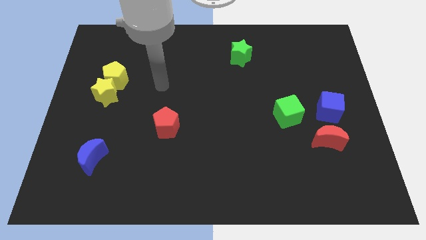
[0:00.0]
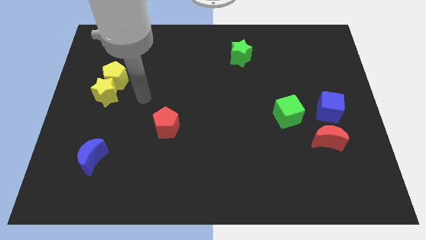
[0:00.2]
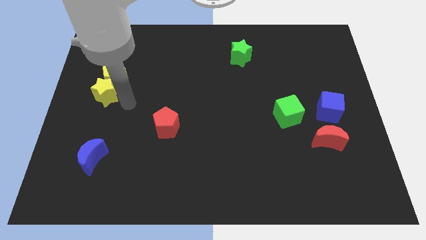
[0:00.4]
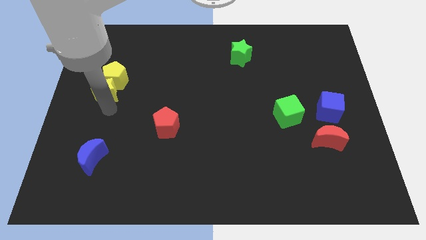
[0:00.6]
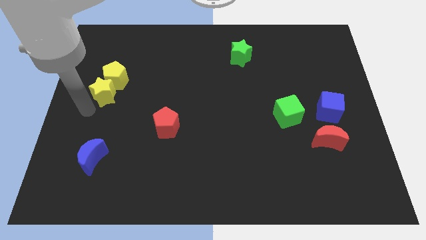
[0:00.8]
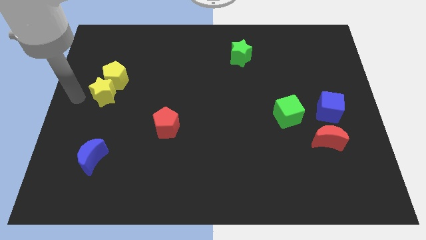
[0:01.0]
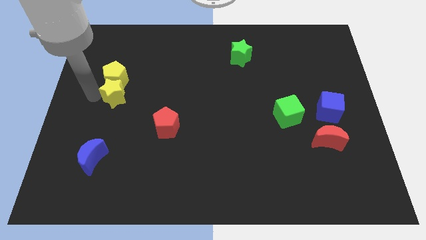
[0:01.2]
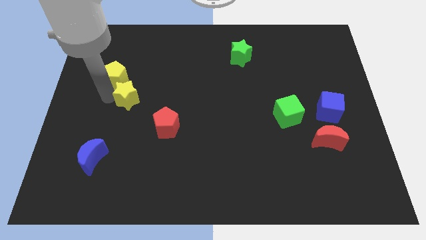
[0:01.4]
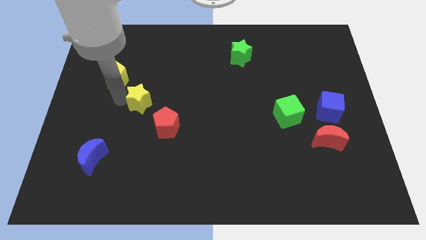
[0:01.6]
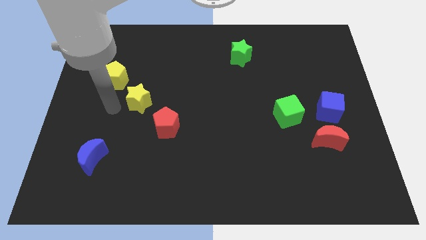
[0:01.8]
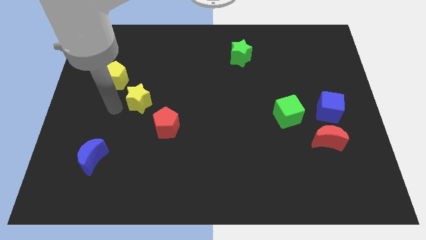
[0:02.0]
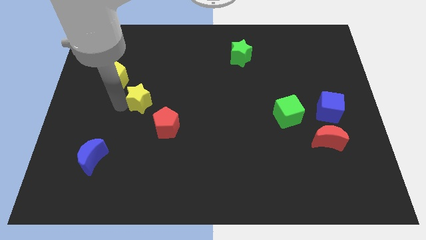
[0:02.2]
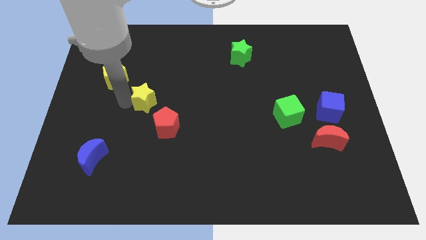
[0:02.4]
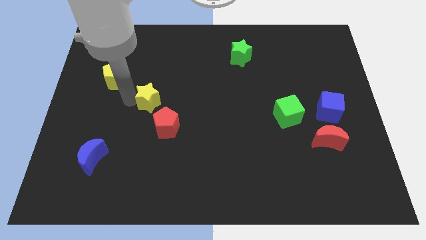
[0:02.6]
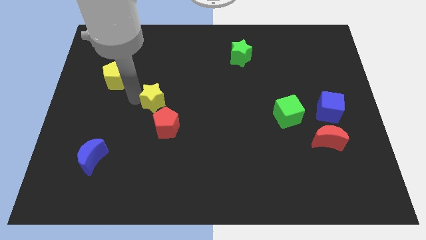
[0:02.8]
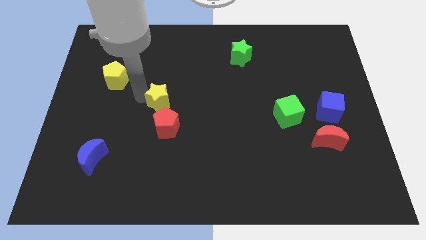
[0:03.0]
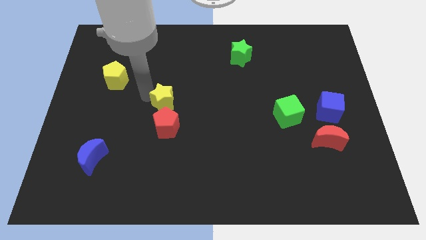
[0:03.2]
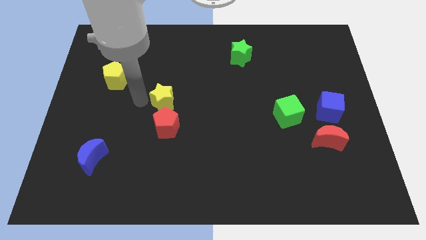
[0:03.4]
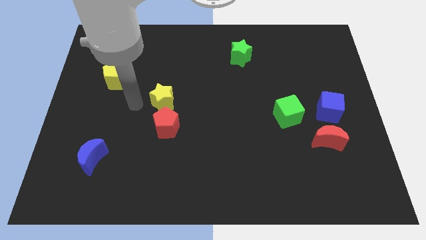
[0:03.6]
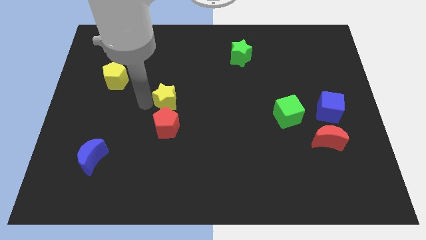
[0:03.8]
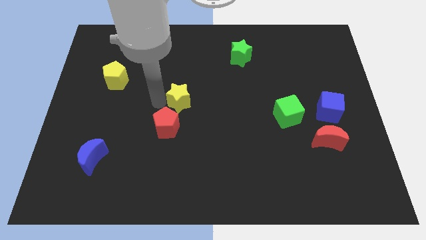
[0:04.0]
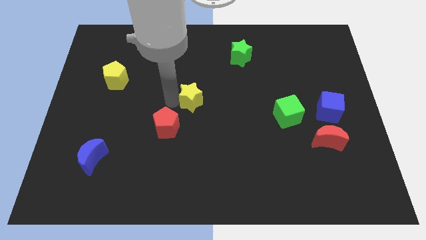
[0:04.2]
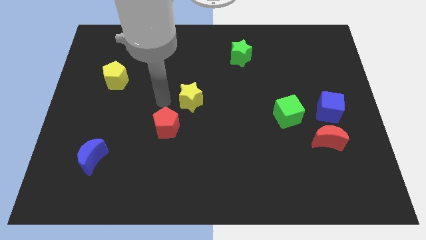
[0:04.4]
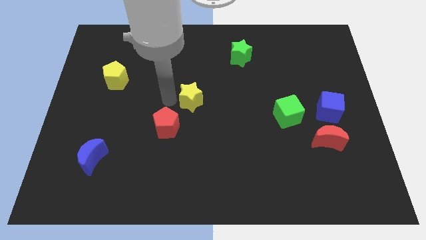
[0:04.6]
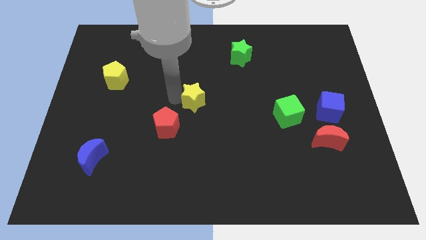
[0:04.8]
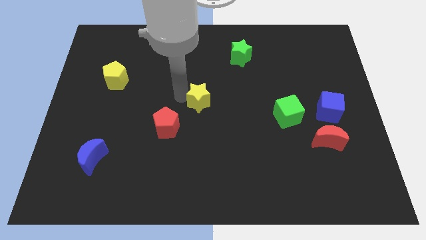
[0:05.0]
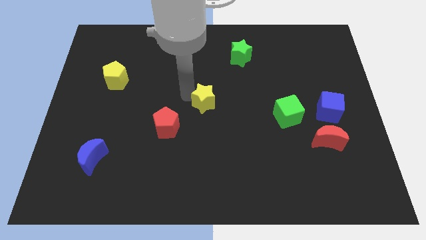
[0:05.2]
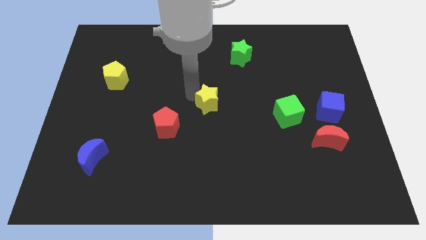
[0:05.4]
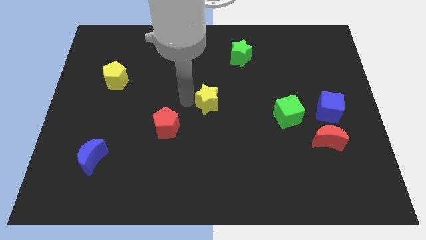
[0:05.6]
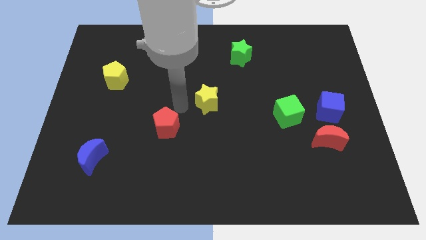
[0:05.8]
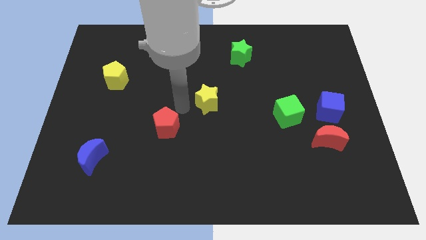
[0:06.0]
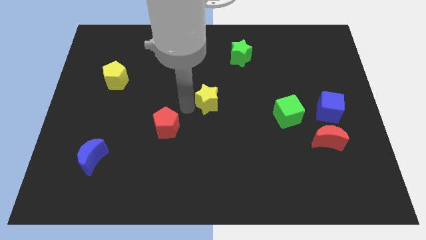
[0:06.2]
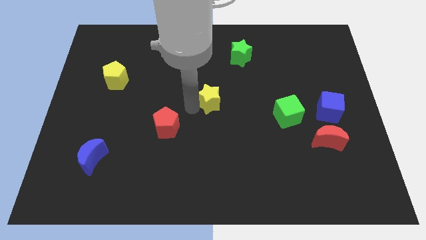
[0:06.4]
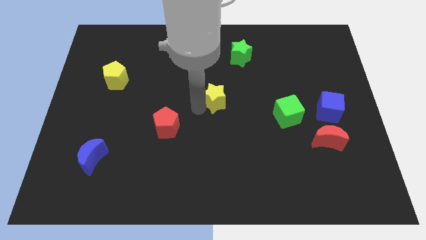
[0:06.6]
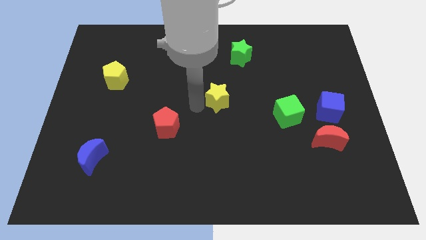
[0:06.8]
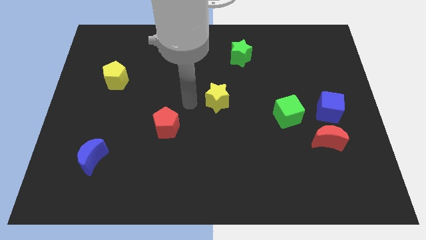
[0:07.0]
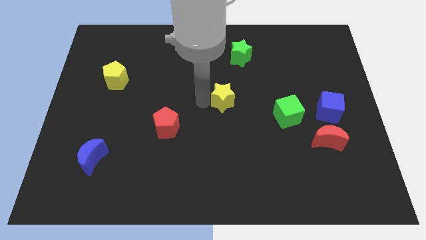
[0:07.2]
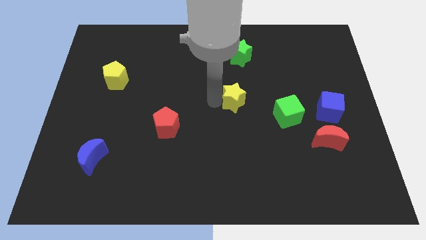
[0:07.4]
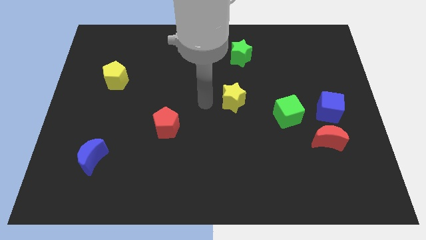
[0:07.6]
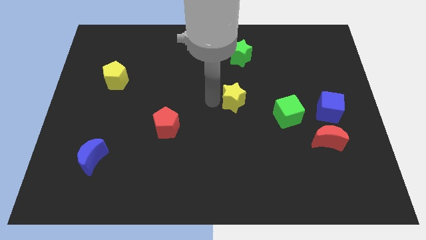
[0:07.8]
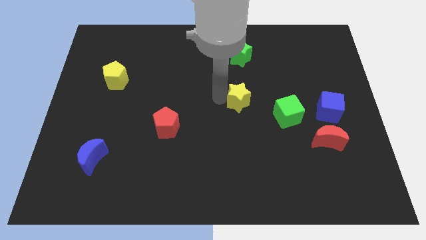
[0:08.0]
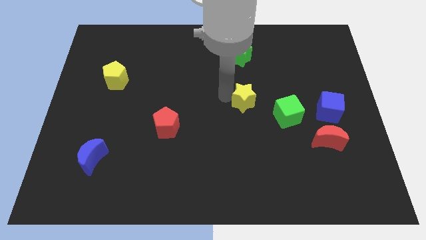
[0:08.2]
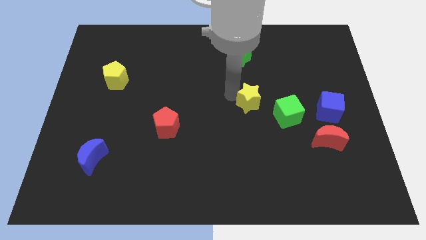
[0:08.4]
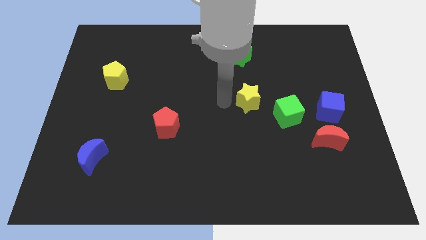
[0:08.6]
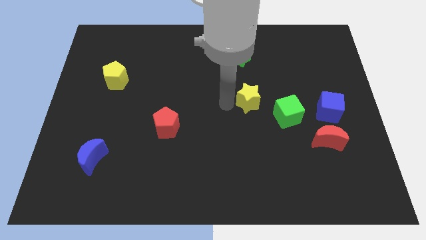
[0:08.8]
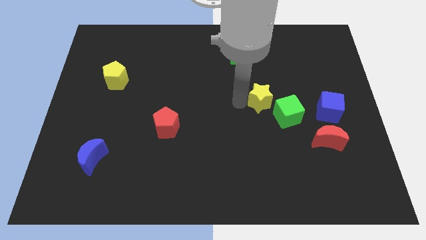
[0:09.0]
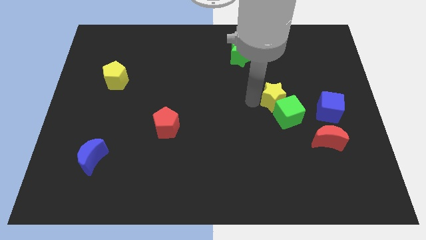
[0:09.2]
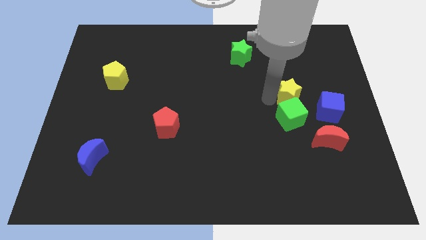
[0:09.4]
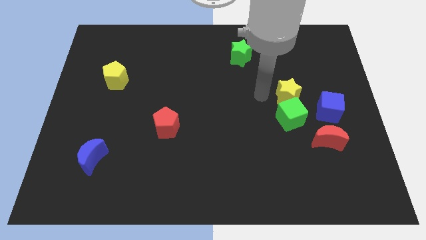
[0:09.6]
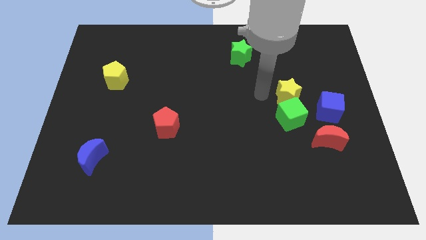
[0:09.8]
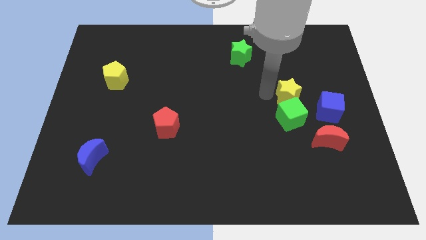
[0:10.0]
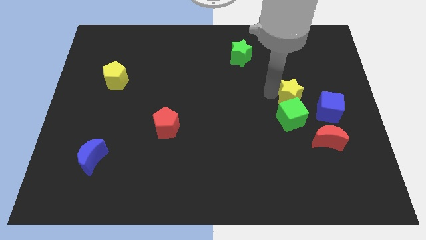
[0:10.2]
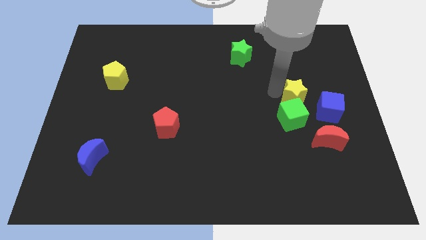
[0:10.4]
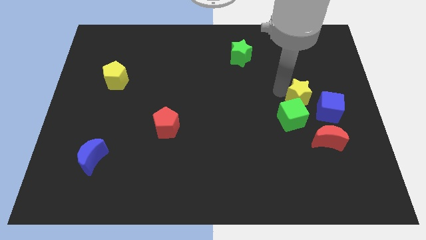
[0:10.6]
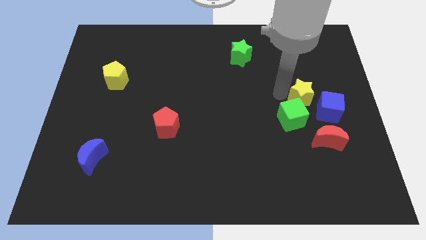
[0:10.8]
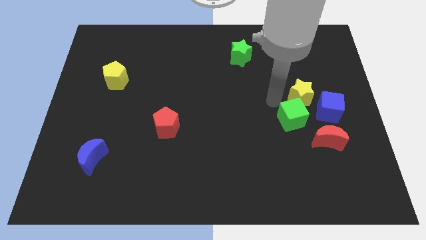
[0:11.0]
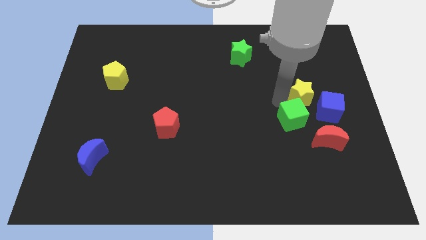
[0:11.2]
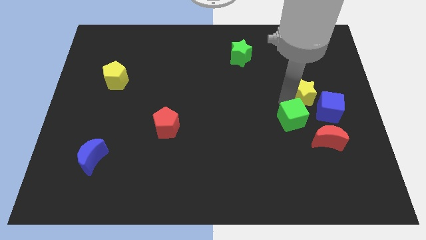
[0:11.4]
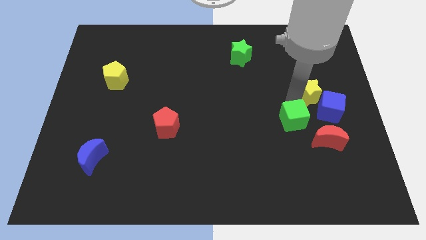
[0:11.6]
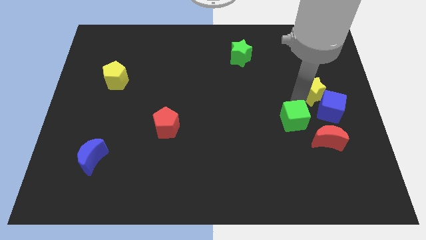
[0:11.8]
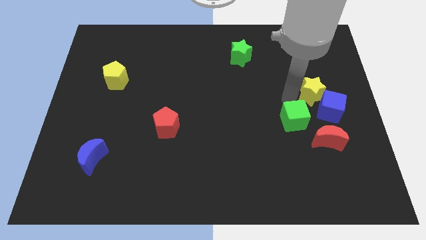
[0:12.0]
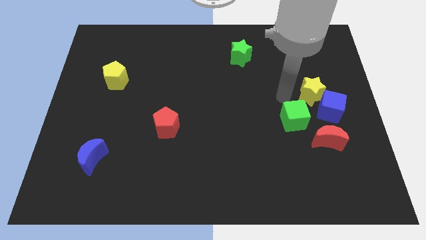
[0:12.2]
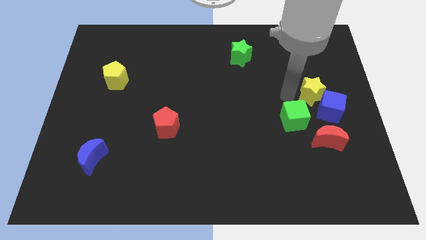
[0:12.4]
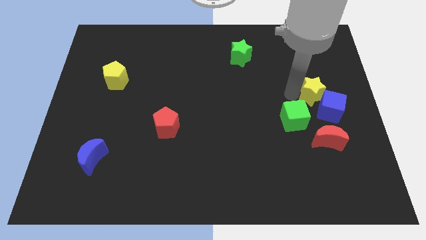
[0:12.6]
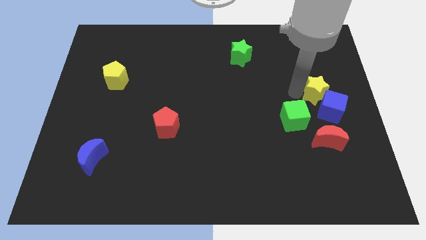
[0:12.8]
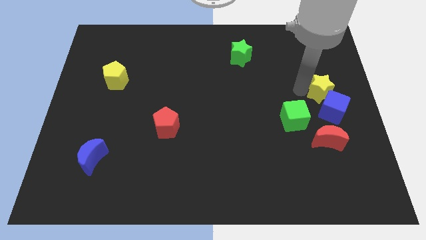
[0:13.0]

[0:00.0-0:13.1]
slide the yellow star to the right side of the board
